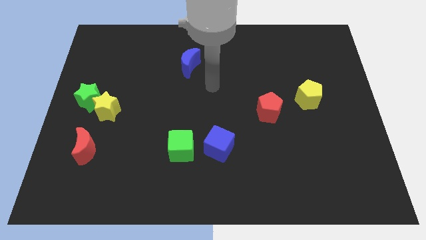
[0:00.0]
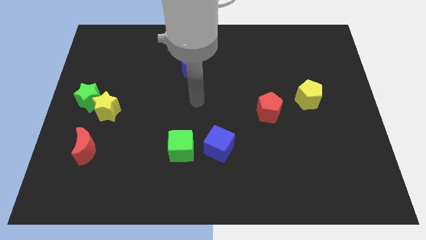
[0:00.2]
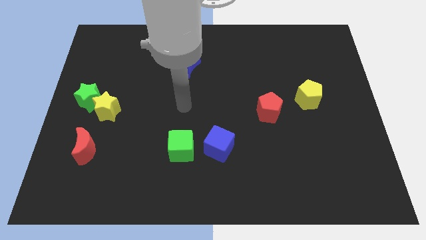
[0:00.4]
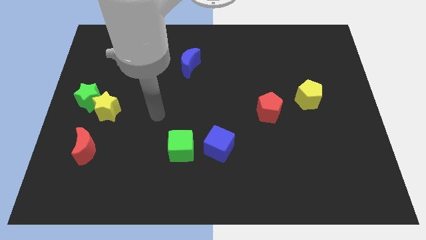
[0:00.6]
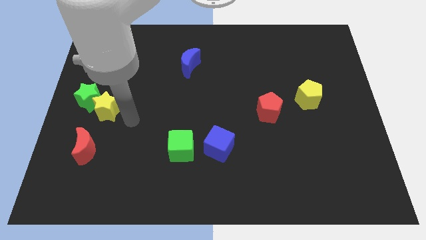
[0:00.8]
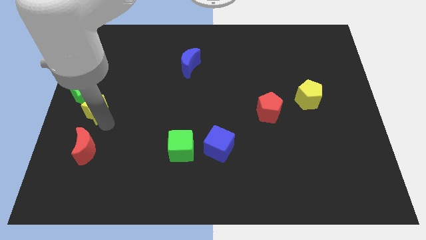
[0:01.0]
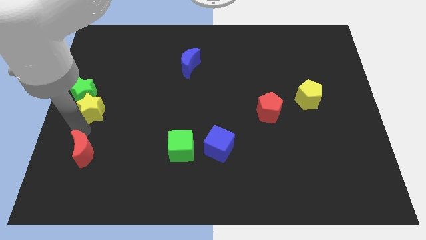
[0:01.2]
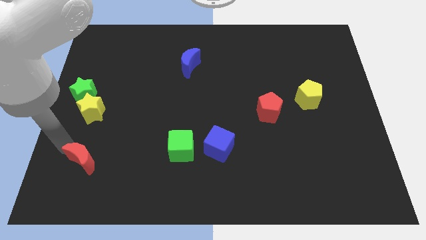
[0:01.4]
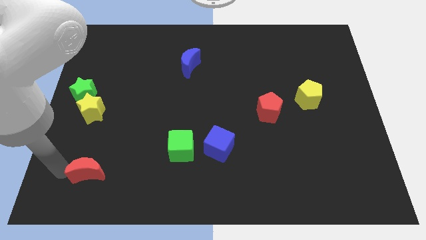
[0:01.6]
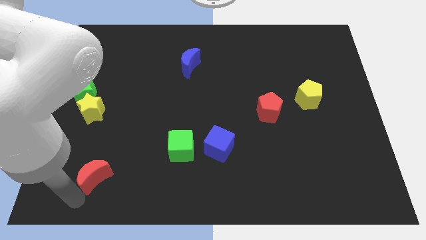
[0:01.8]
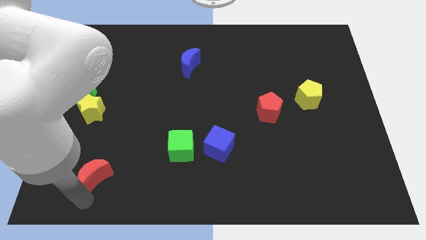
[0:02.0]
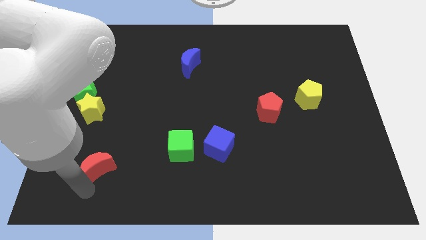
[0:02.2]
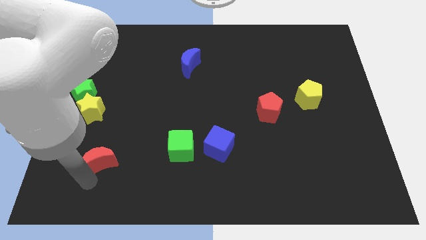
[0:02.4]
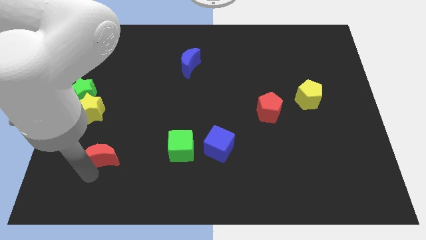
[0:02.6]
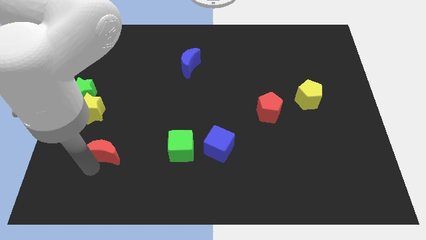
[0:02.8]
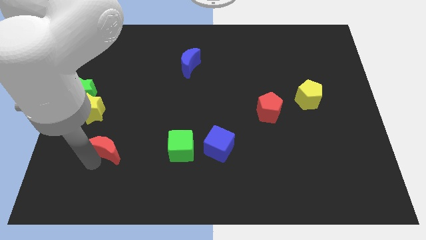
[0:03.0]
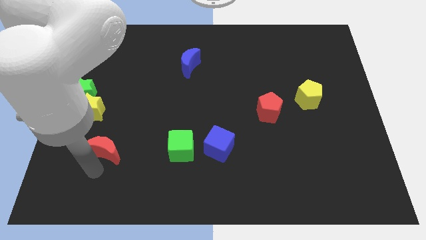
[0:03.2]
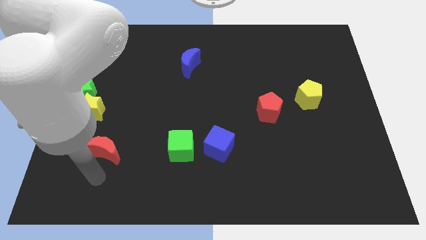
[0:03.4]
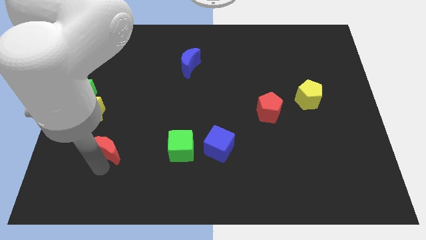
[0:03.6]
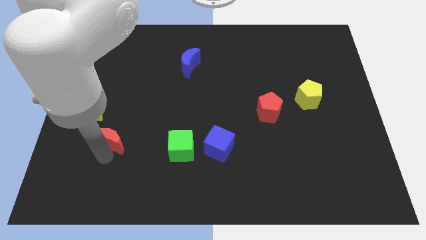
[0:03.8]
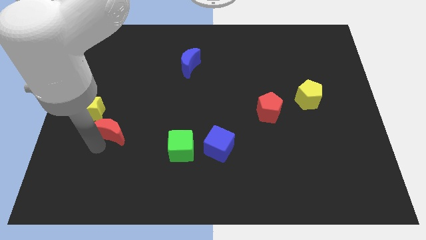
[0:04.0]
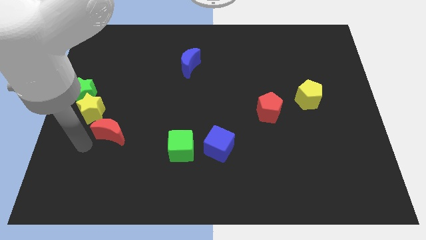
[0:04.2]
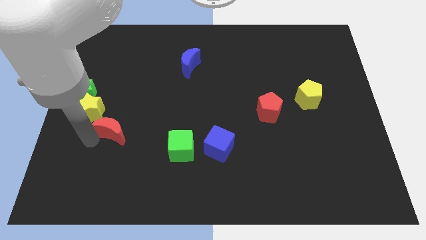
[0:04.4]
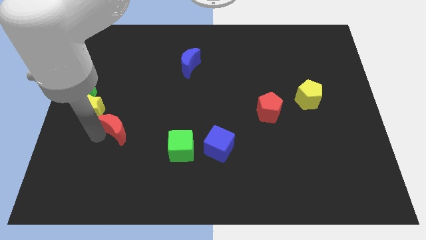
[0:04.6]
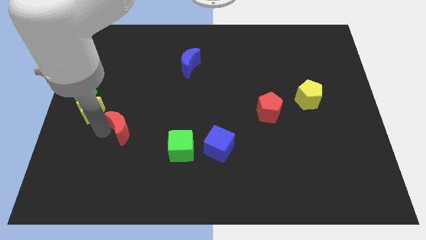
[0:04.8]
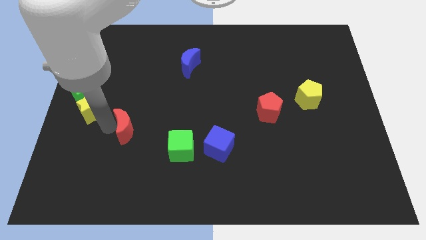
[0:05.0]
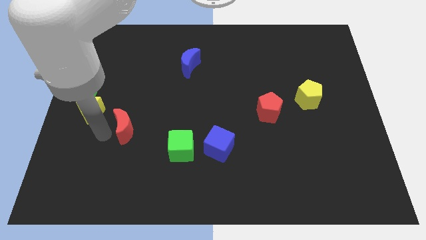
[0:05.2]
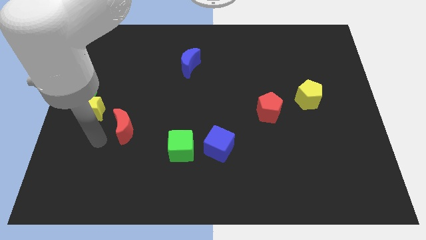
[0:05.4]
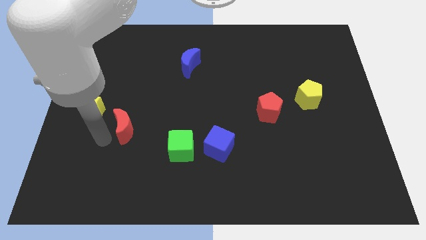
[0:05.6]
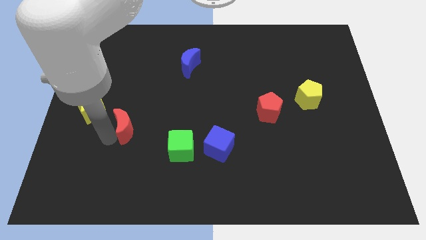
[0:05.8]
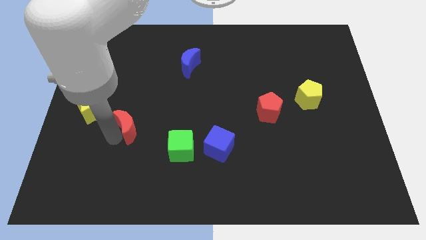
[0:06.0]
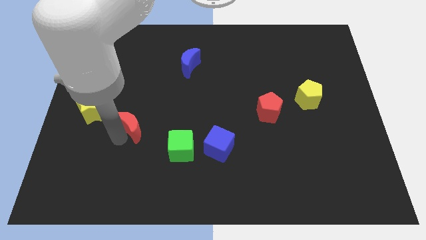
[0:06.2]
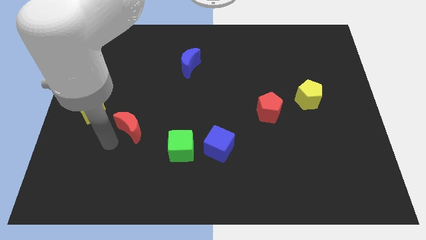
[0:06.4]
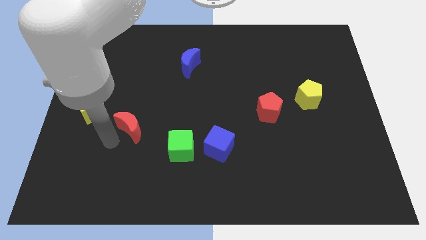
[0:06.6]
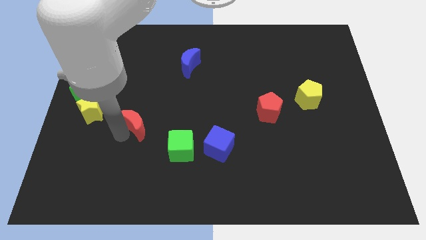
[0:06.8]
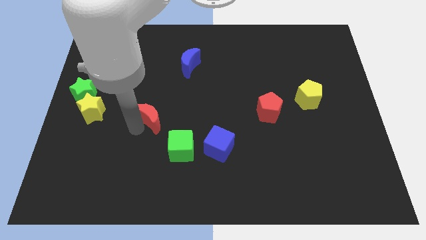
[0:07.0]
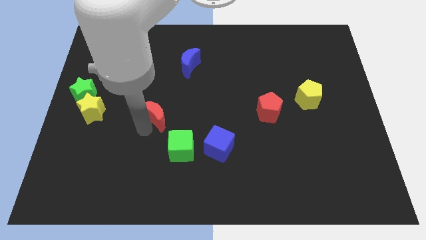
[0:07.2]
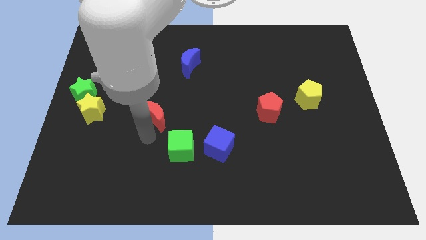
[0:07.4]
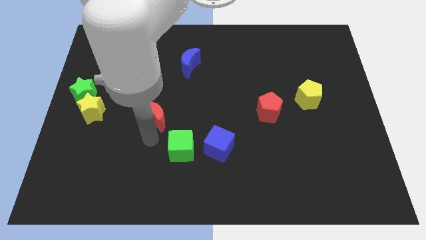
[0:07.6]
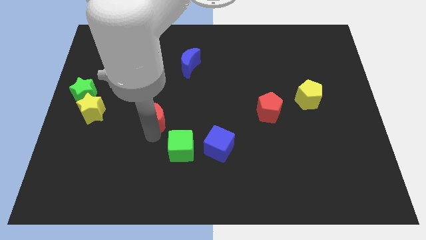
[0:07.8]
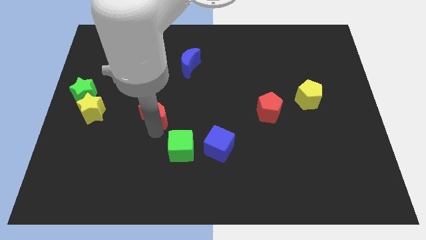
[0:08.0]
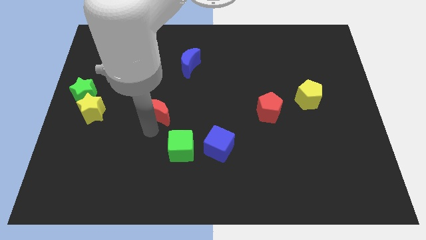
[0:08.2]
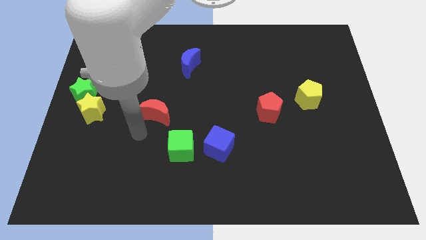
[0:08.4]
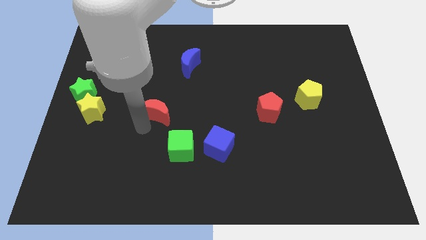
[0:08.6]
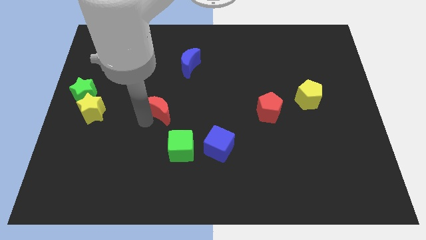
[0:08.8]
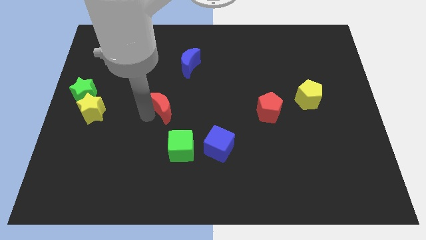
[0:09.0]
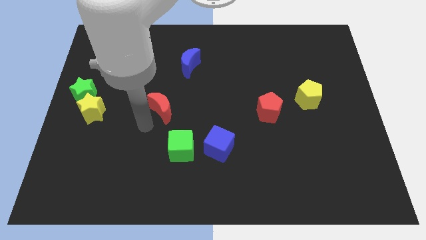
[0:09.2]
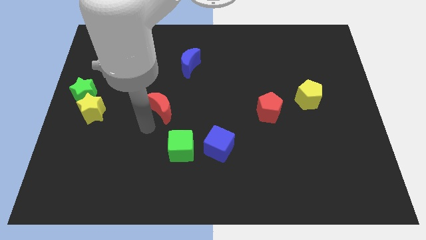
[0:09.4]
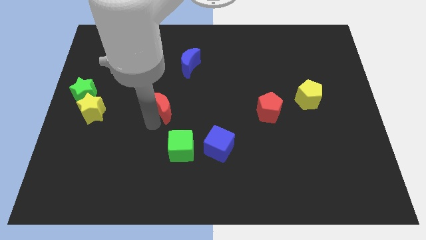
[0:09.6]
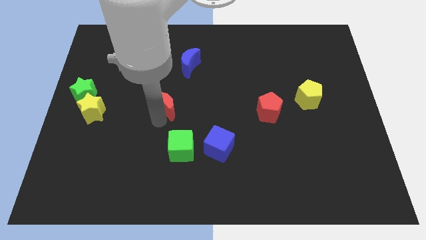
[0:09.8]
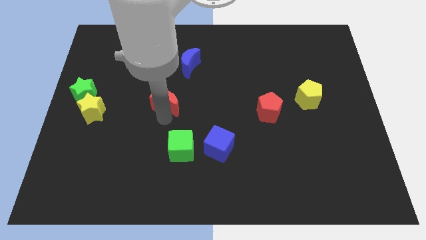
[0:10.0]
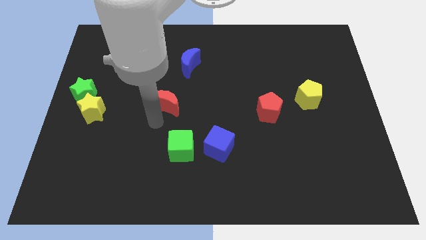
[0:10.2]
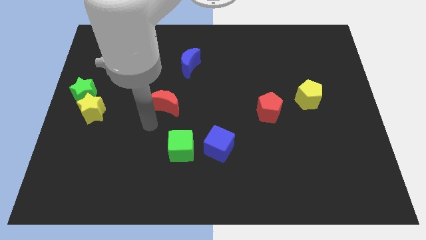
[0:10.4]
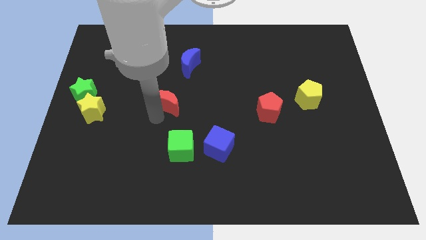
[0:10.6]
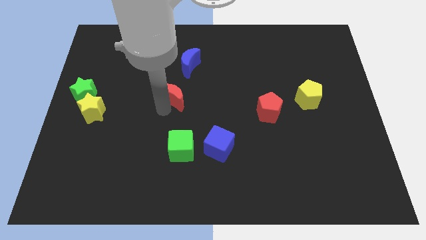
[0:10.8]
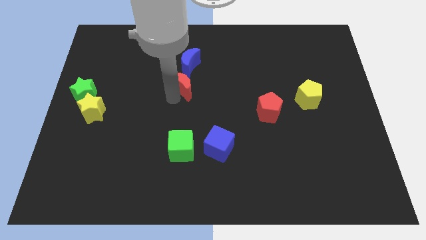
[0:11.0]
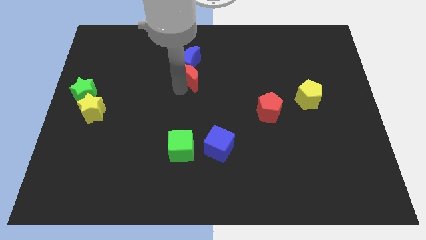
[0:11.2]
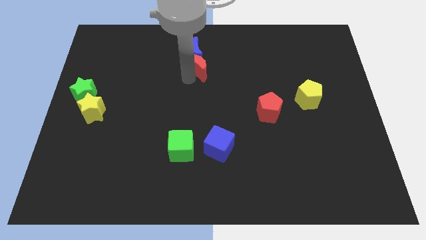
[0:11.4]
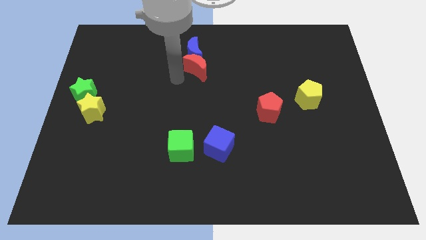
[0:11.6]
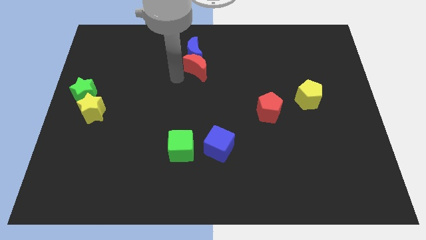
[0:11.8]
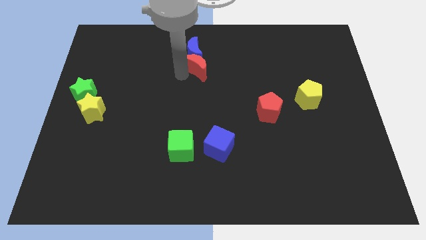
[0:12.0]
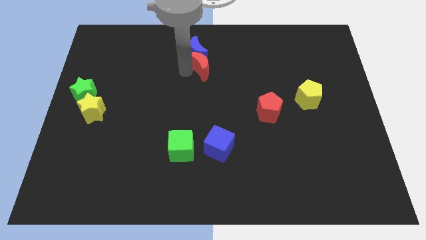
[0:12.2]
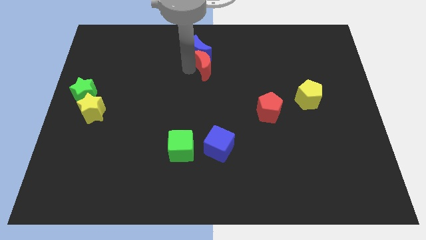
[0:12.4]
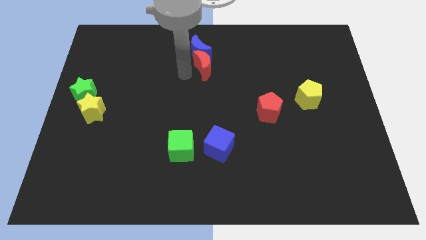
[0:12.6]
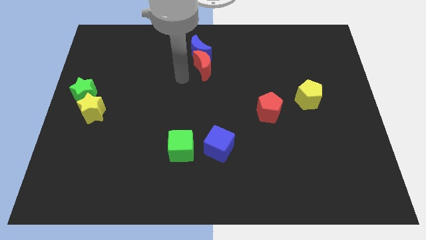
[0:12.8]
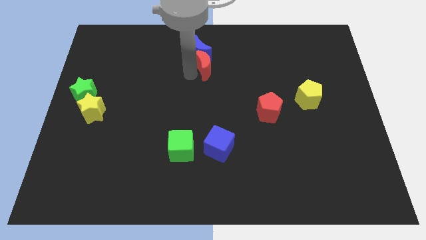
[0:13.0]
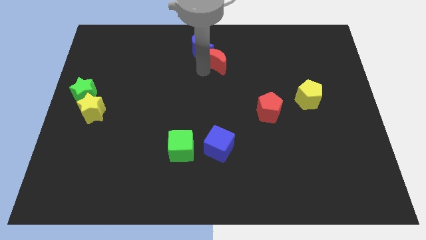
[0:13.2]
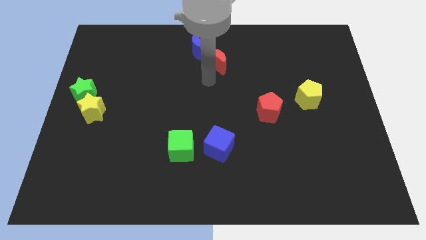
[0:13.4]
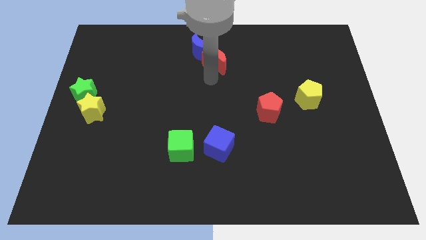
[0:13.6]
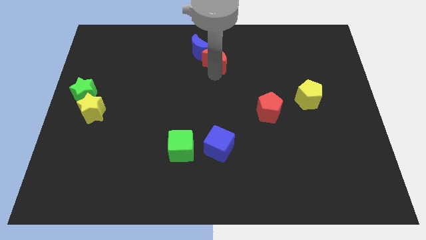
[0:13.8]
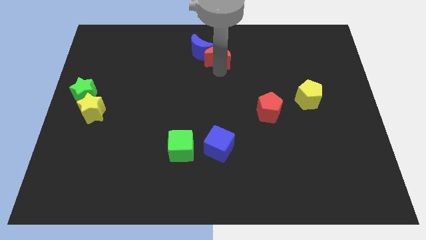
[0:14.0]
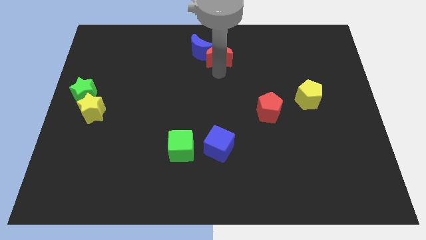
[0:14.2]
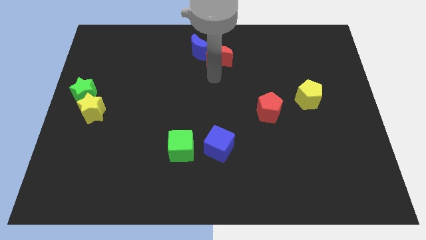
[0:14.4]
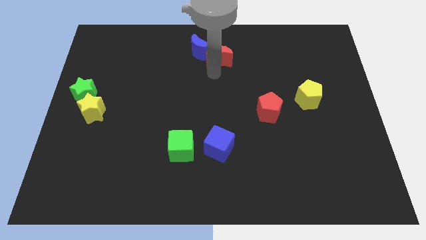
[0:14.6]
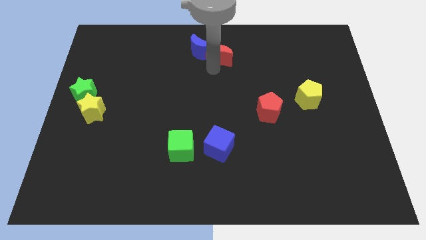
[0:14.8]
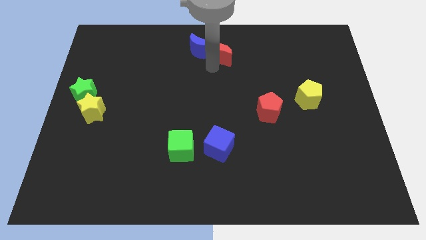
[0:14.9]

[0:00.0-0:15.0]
move the red moon to the top
